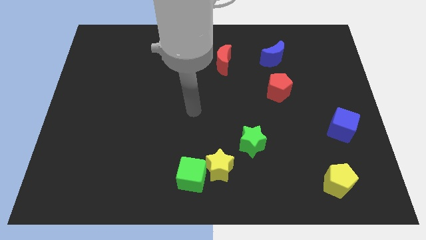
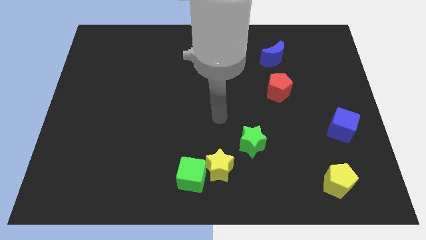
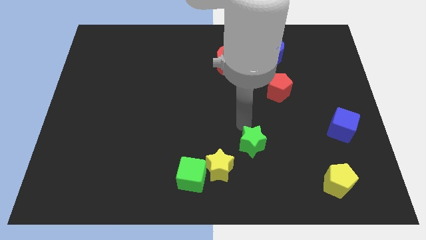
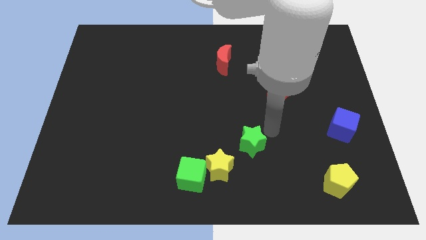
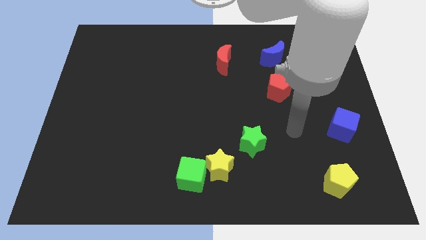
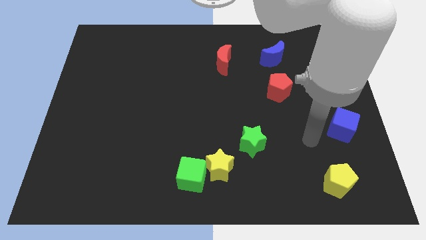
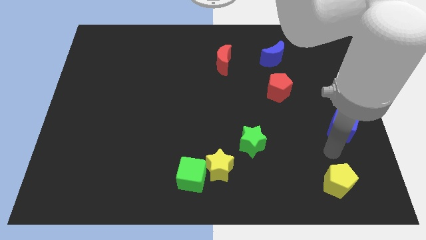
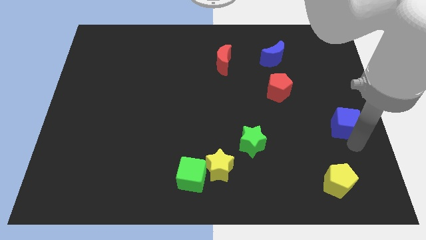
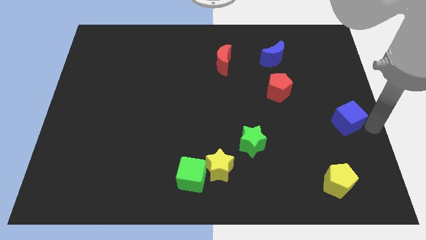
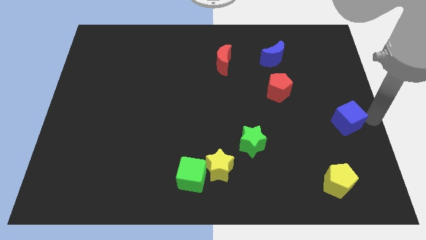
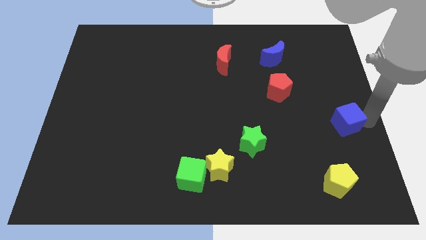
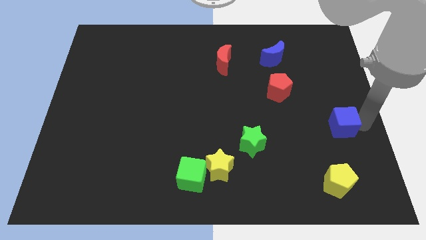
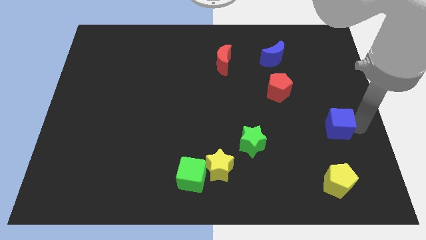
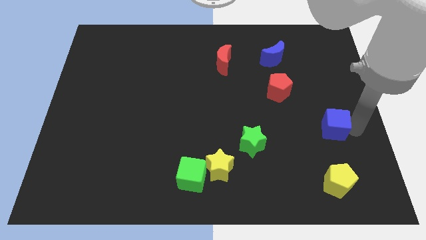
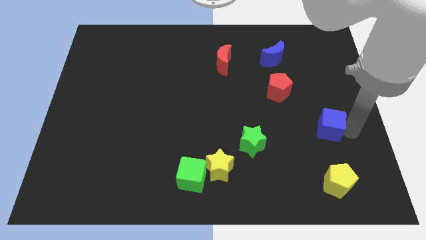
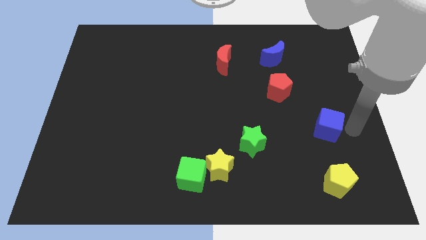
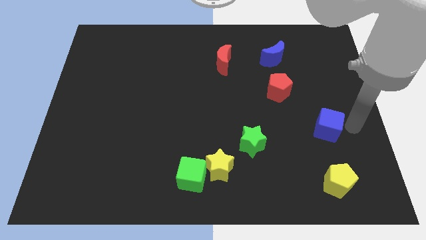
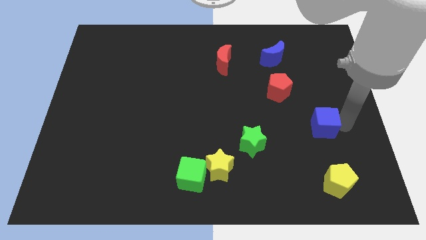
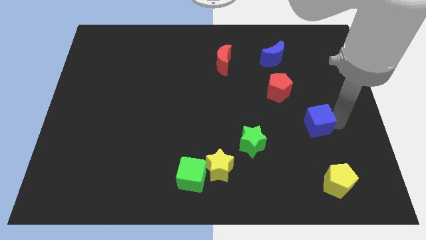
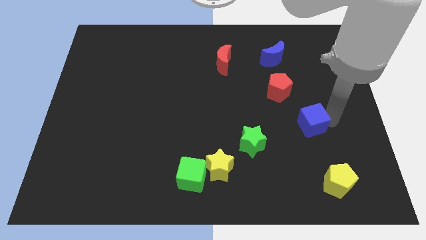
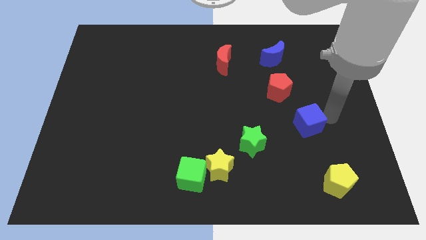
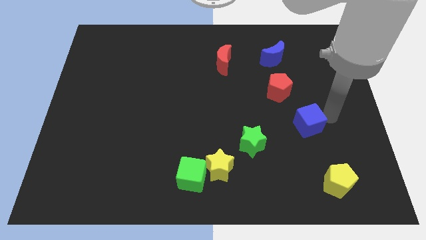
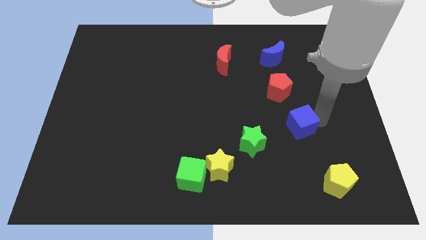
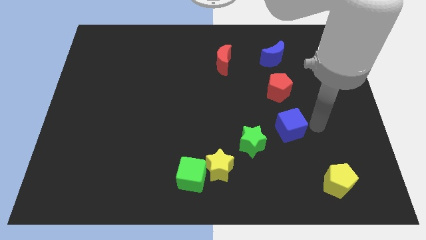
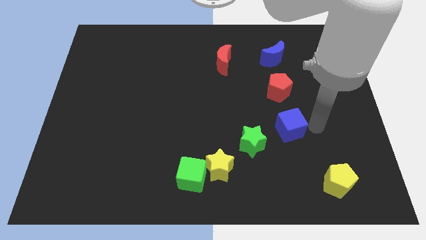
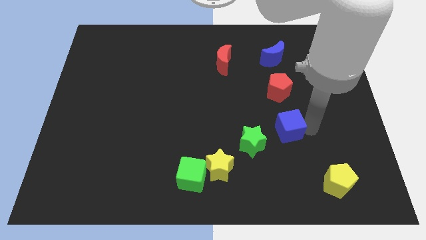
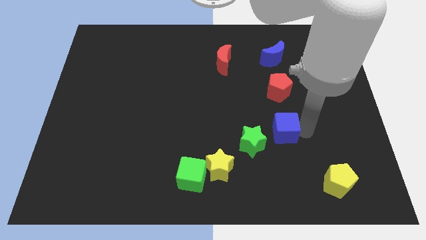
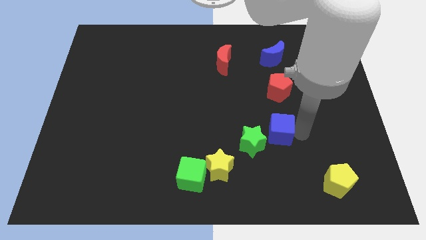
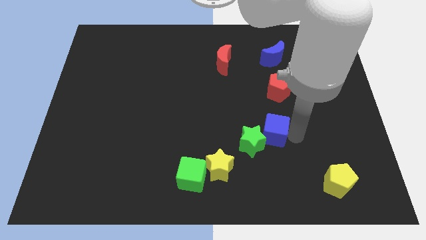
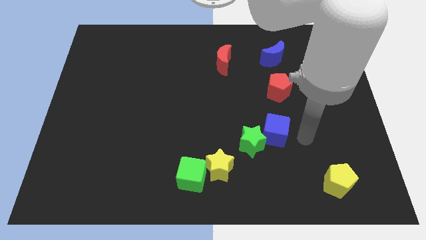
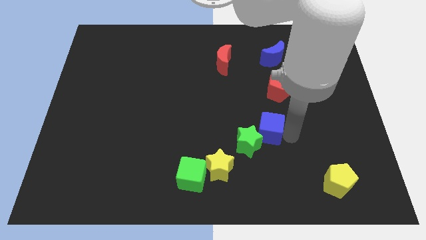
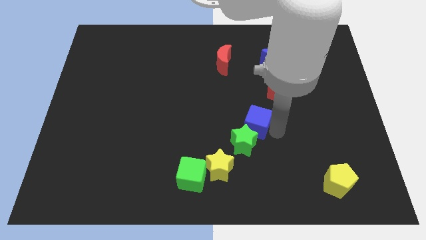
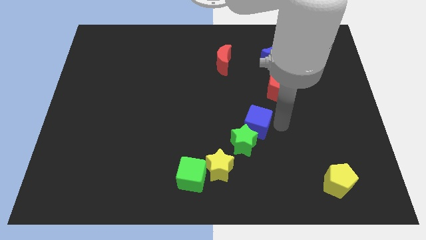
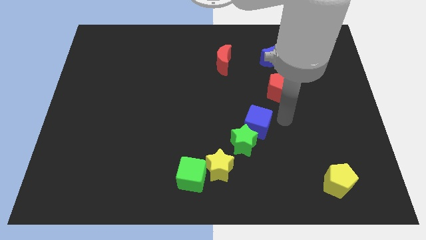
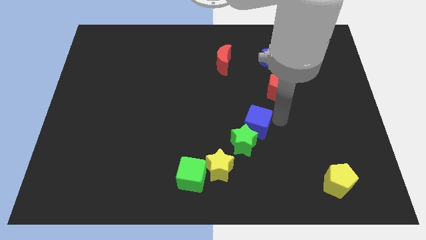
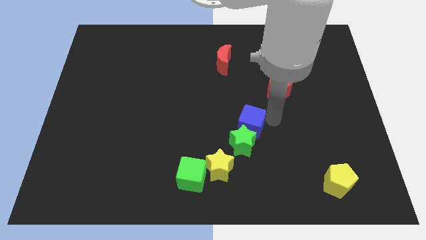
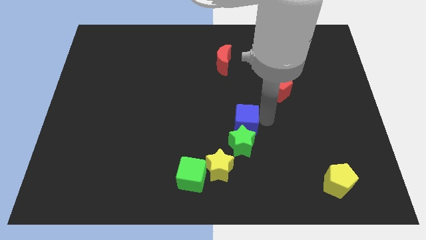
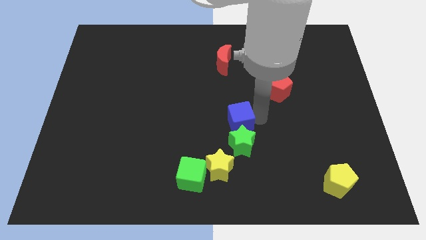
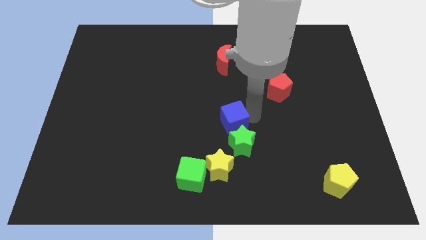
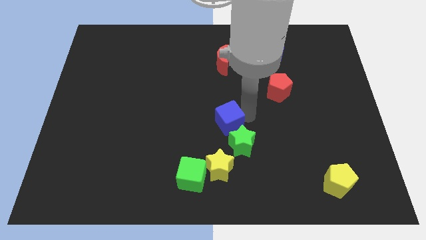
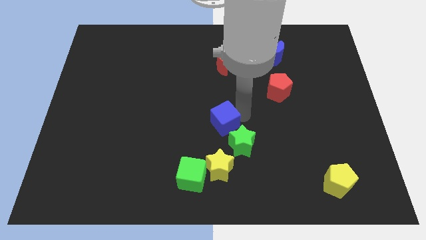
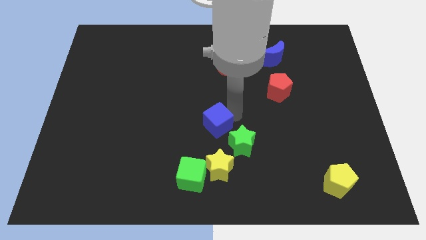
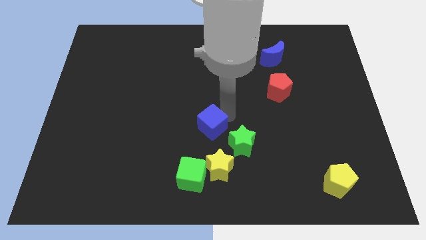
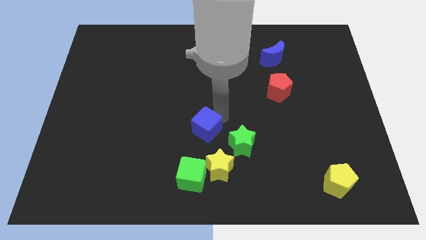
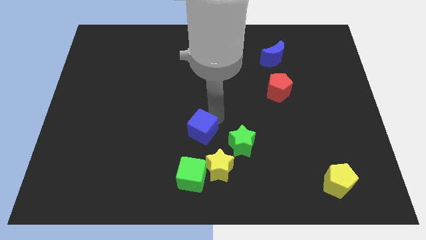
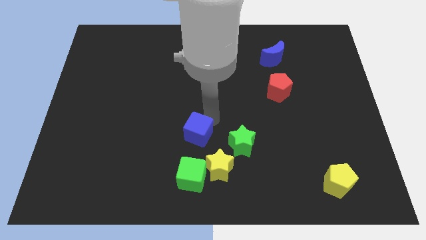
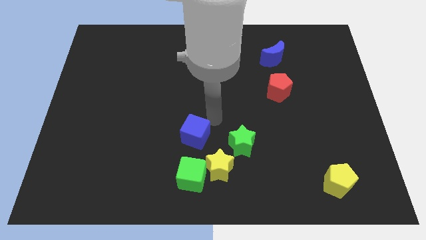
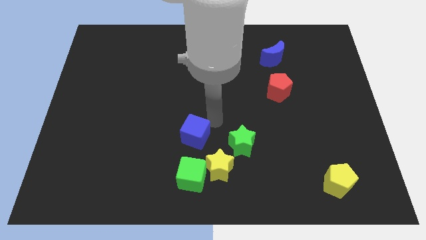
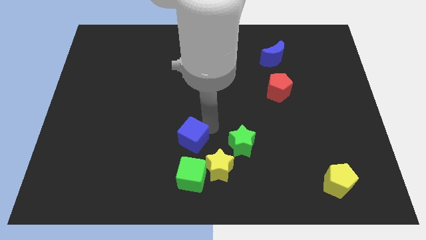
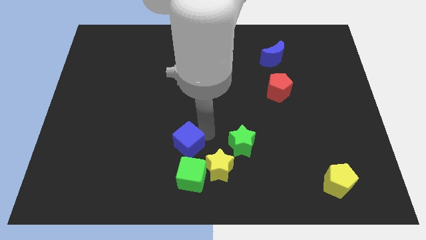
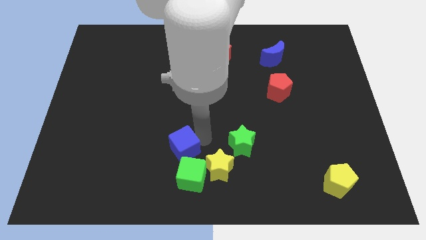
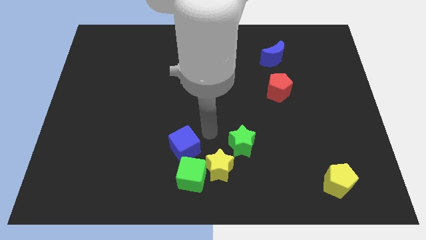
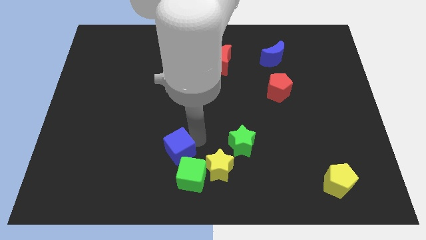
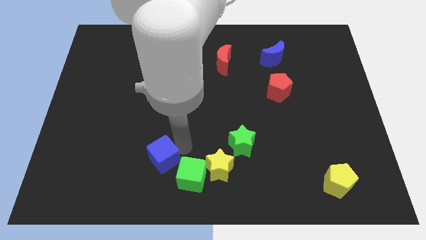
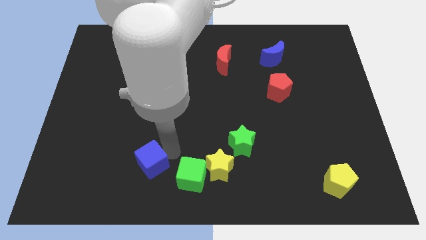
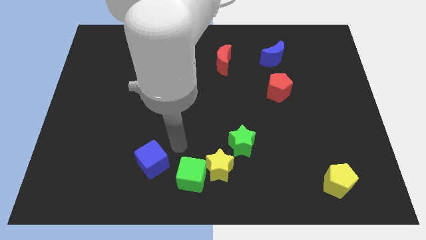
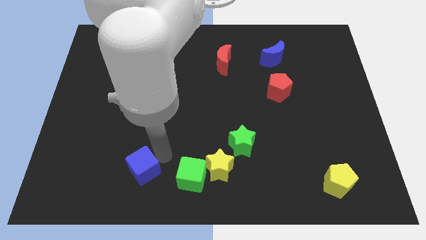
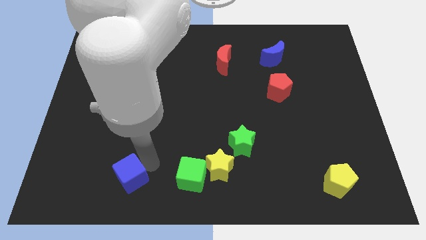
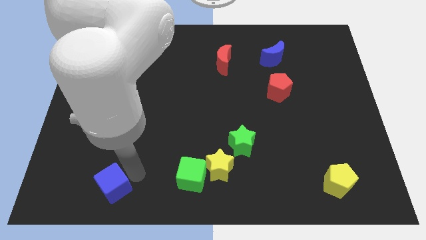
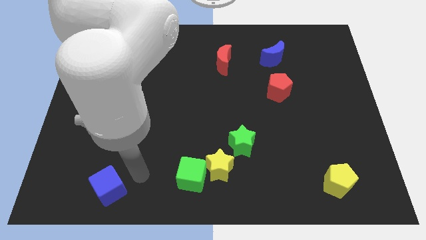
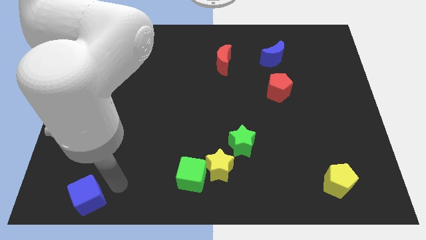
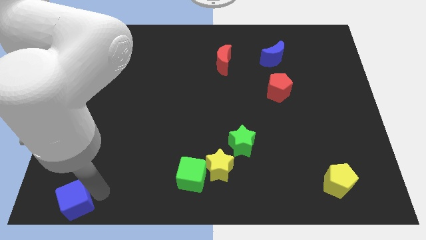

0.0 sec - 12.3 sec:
slide the blue cube to the bottom left of the board

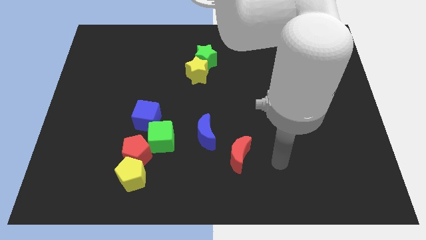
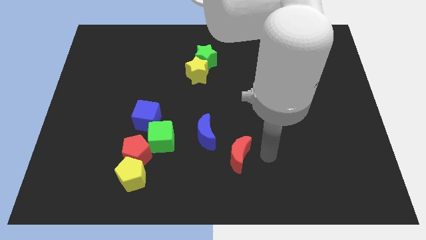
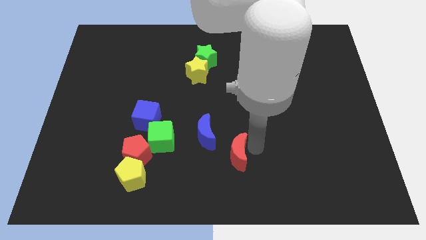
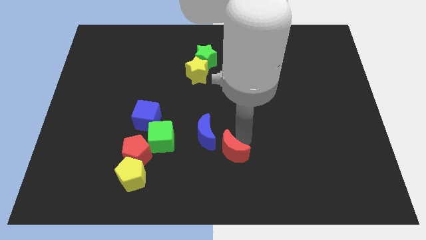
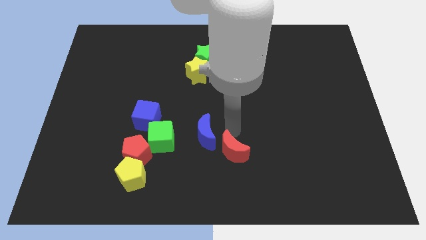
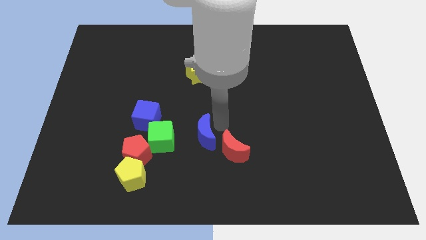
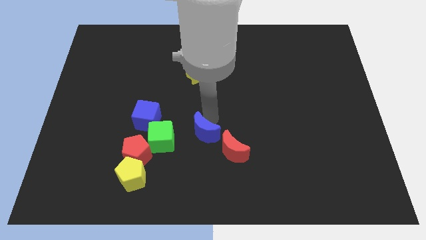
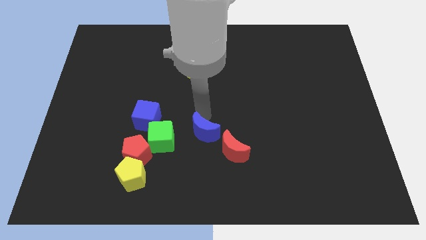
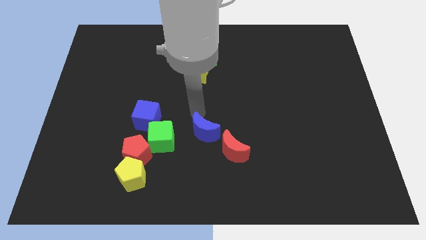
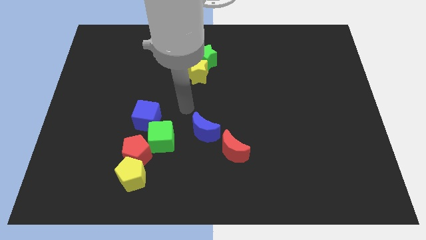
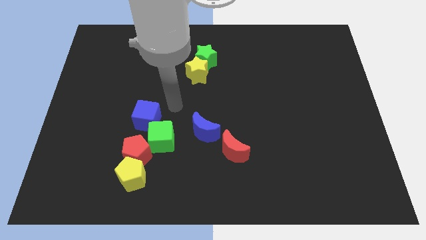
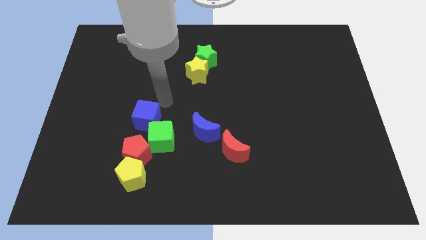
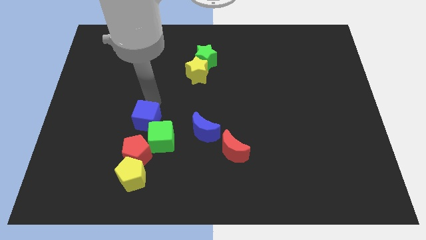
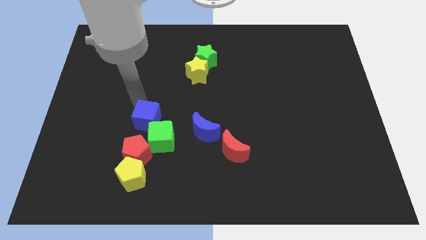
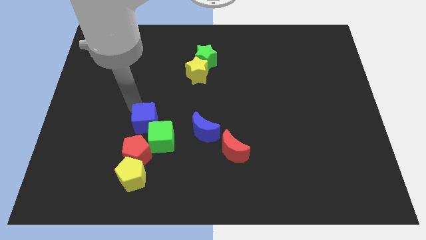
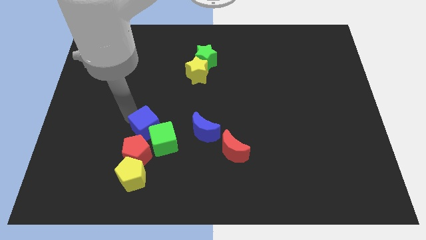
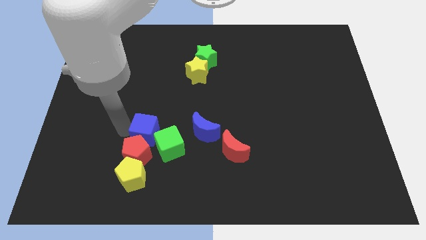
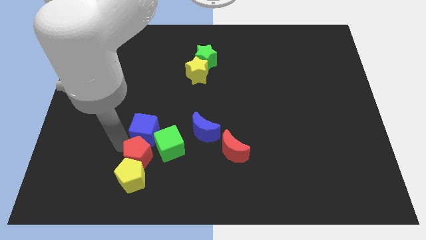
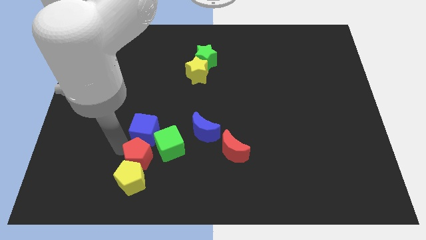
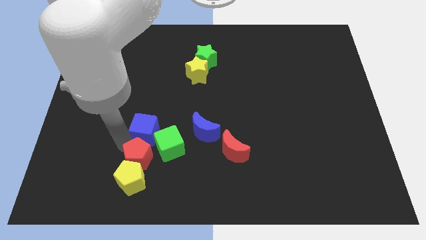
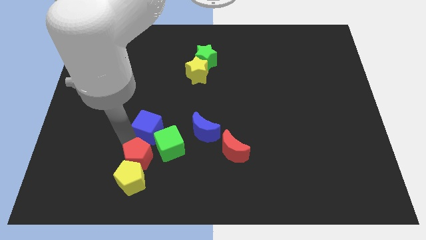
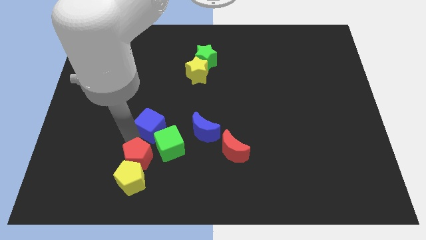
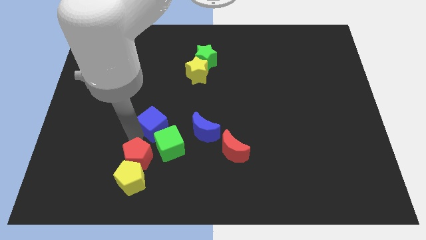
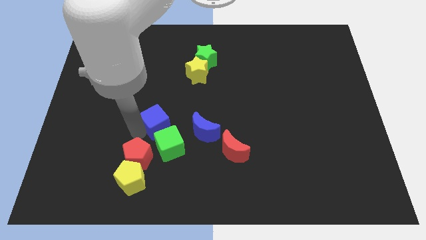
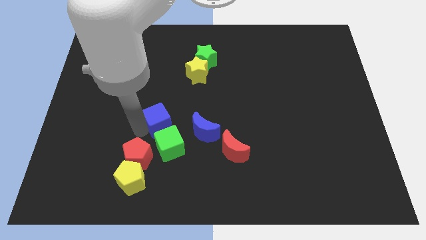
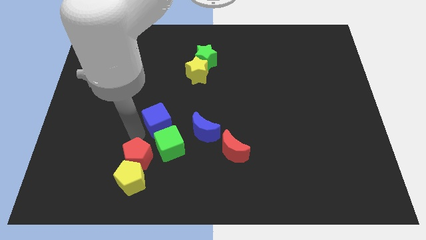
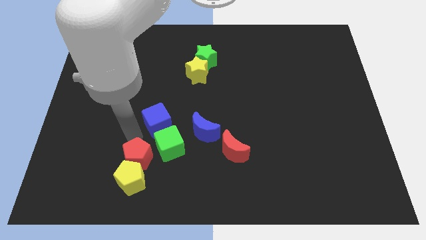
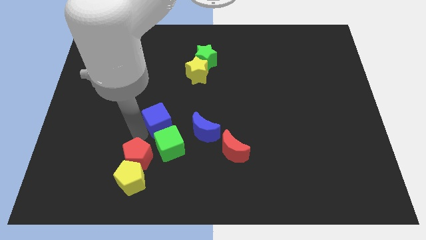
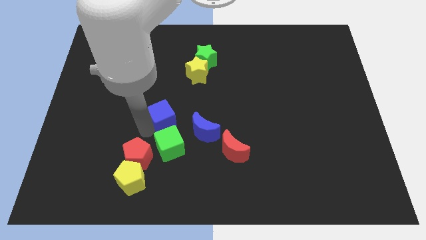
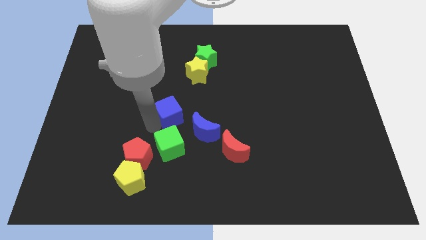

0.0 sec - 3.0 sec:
push the blue cube to the center of the board
